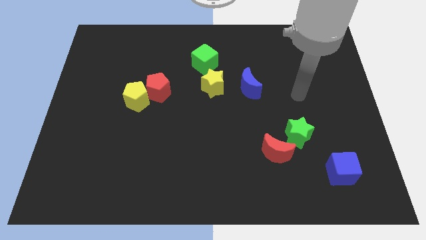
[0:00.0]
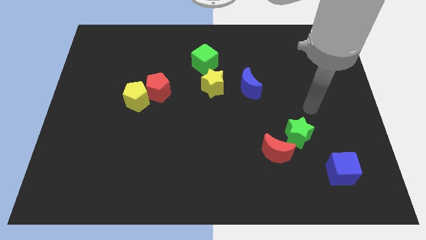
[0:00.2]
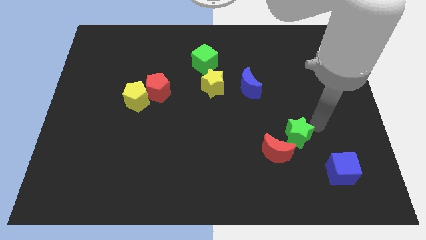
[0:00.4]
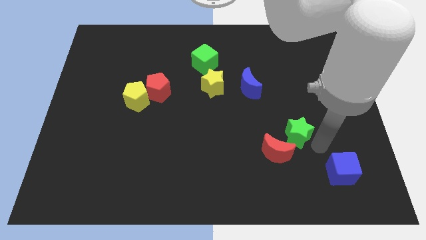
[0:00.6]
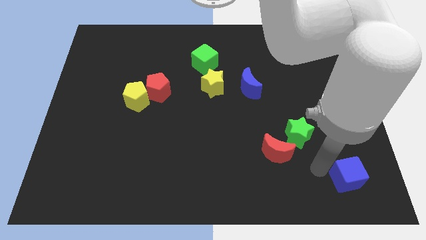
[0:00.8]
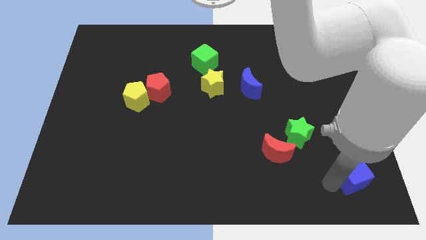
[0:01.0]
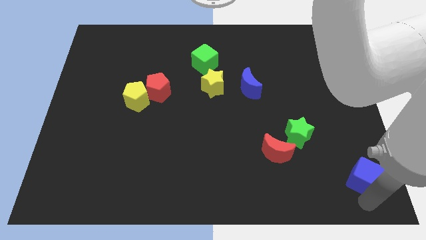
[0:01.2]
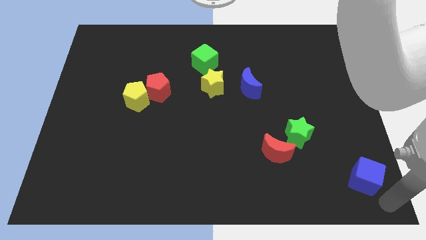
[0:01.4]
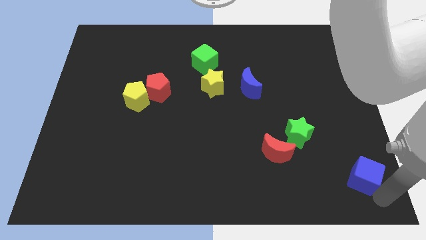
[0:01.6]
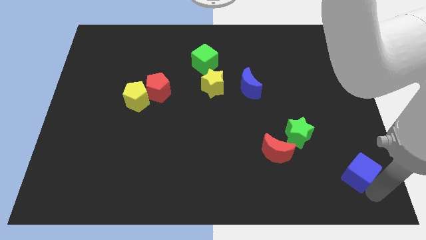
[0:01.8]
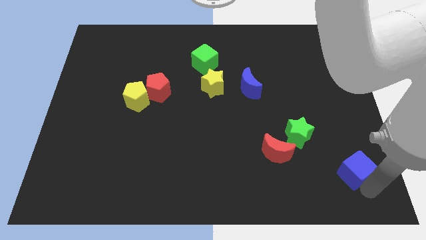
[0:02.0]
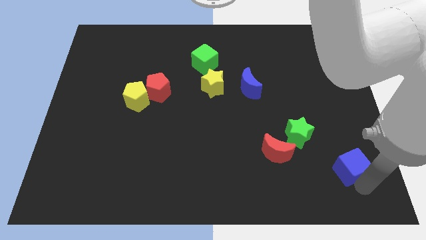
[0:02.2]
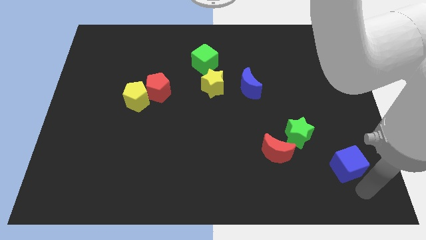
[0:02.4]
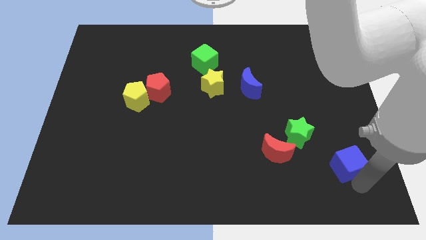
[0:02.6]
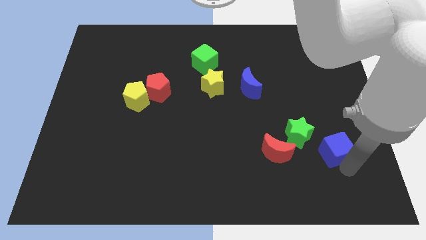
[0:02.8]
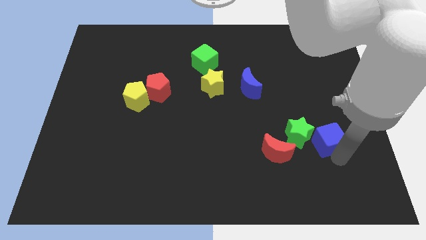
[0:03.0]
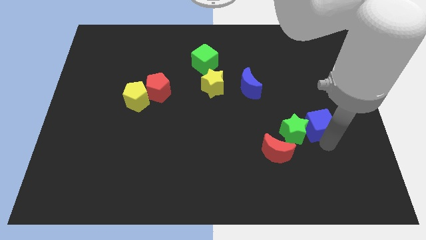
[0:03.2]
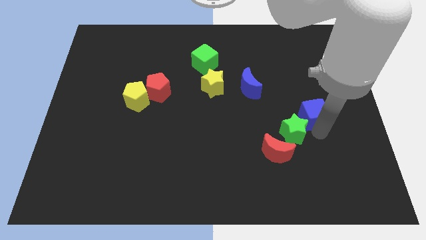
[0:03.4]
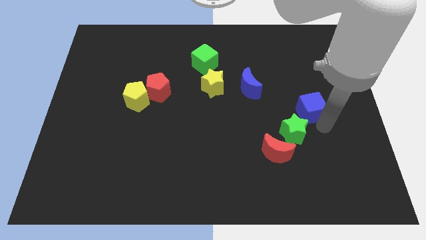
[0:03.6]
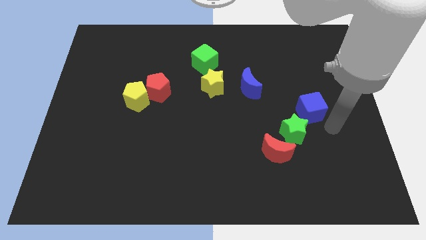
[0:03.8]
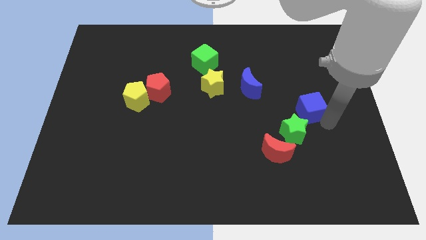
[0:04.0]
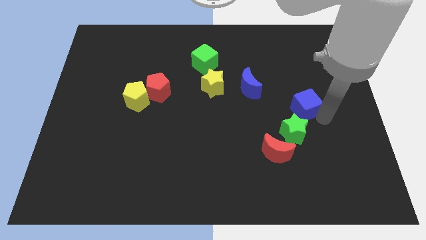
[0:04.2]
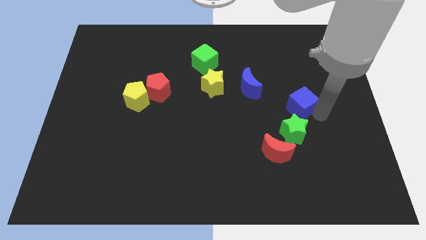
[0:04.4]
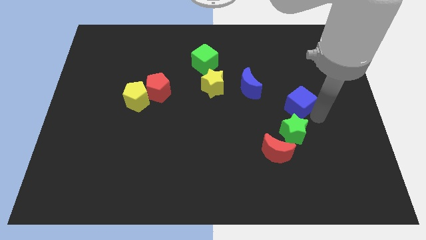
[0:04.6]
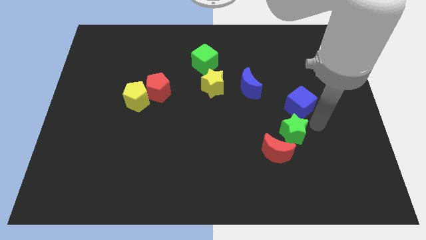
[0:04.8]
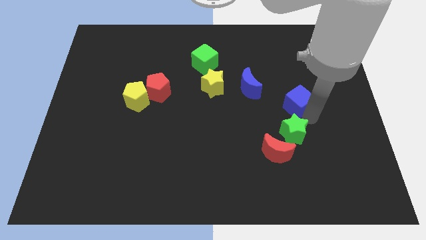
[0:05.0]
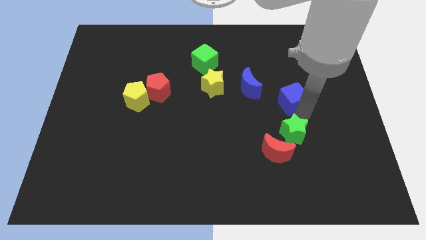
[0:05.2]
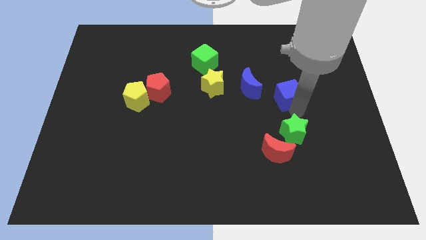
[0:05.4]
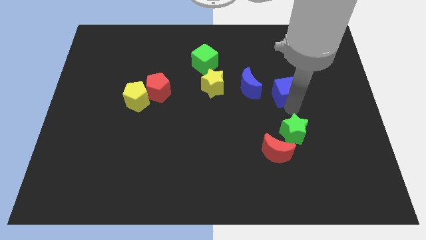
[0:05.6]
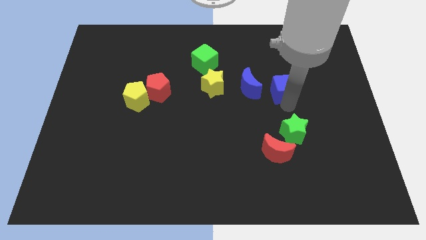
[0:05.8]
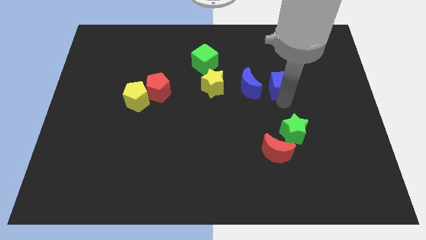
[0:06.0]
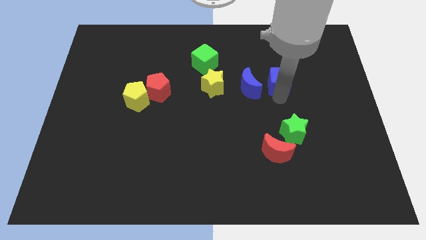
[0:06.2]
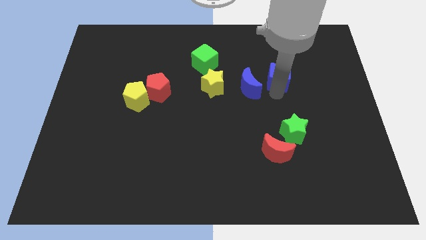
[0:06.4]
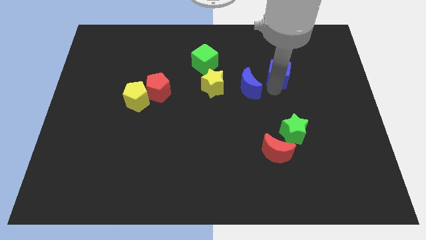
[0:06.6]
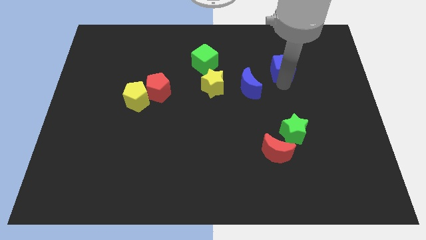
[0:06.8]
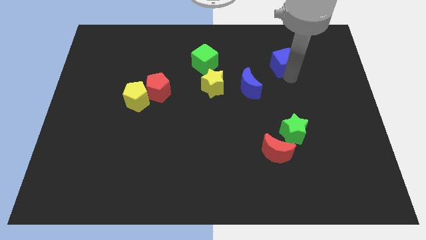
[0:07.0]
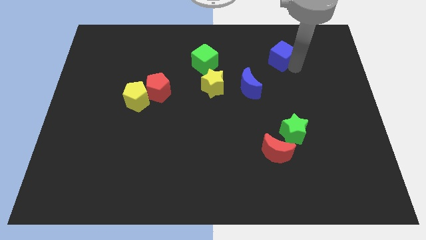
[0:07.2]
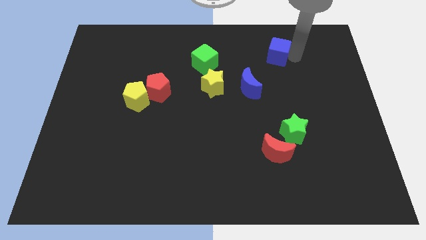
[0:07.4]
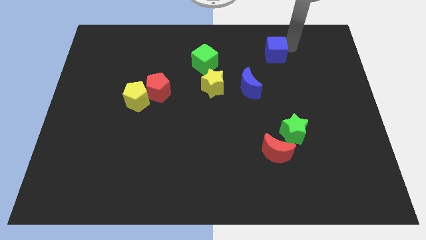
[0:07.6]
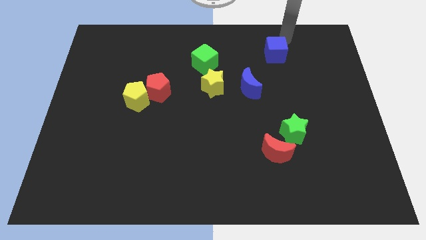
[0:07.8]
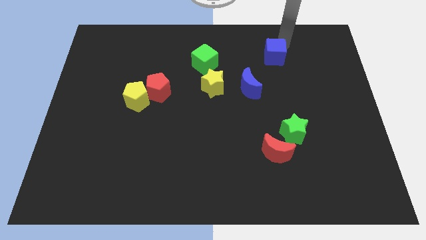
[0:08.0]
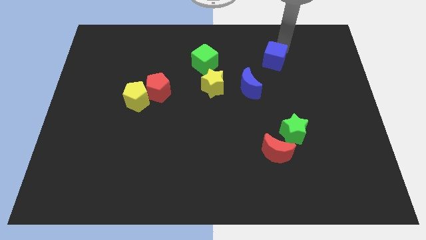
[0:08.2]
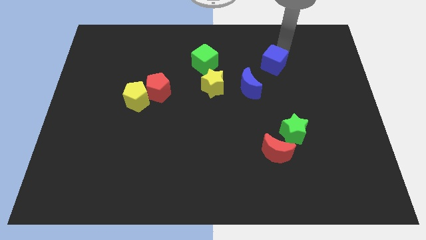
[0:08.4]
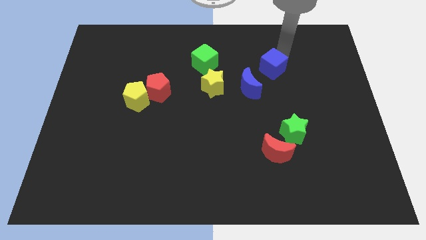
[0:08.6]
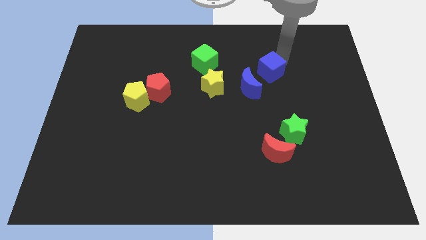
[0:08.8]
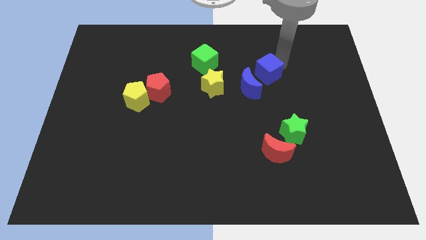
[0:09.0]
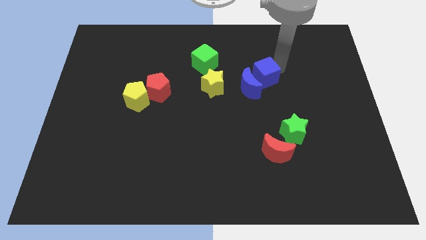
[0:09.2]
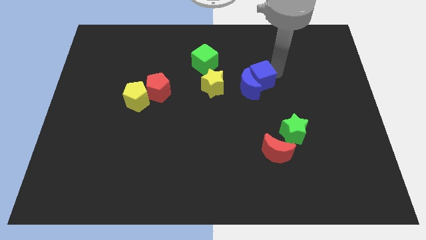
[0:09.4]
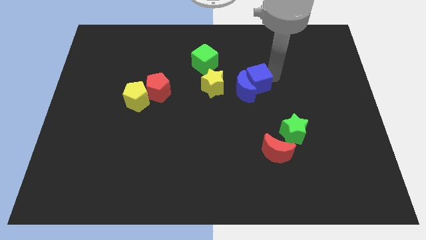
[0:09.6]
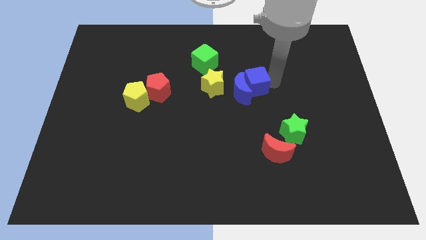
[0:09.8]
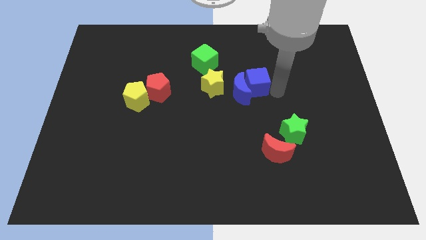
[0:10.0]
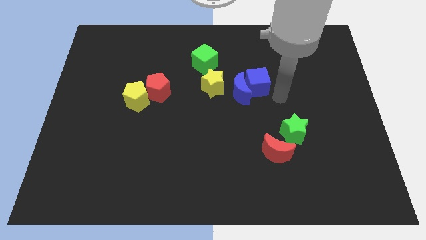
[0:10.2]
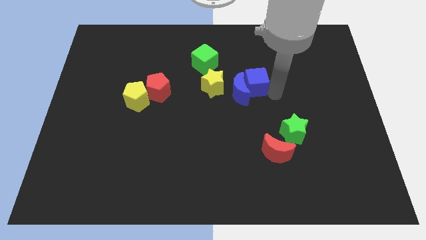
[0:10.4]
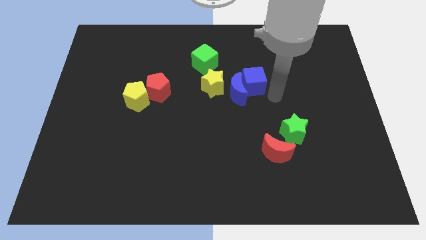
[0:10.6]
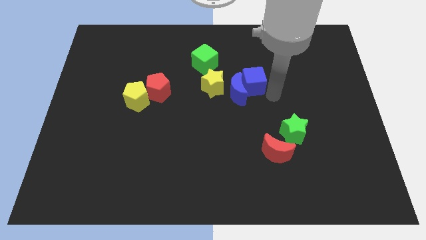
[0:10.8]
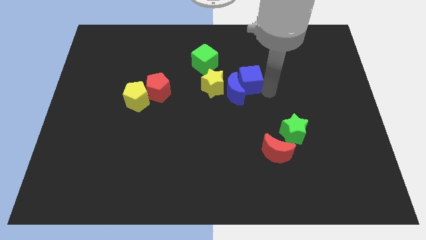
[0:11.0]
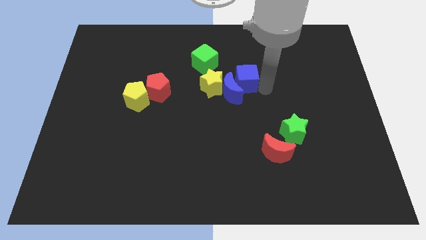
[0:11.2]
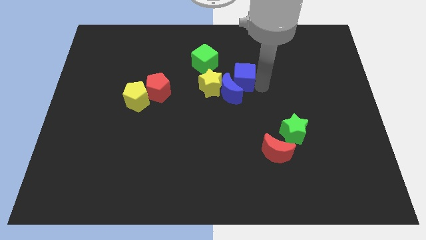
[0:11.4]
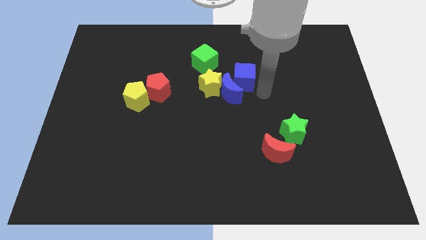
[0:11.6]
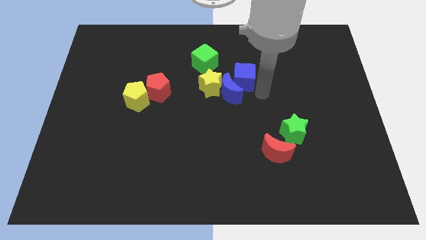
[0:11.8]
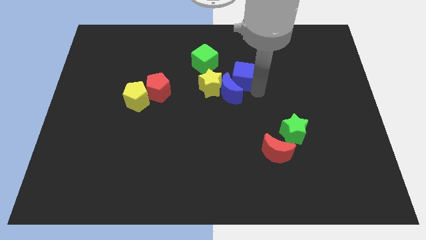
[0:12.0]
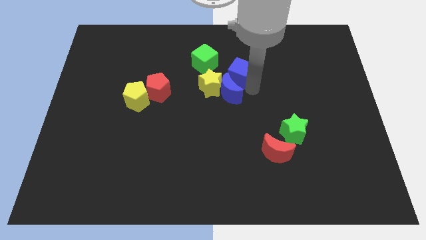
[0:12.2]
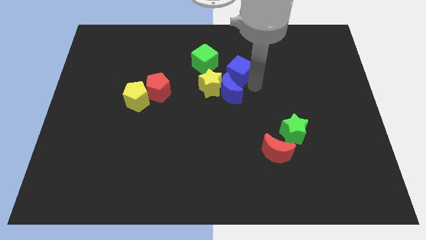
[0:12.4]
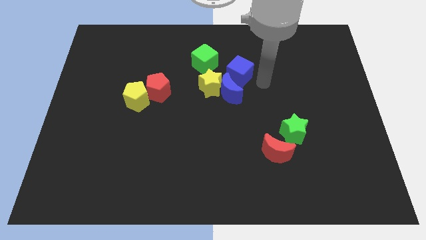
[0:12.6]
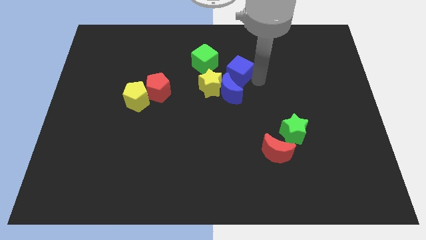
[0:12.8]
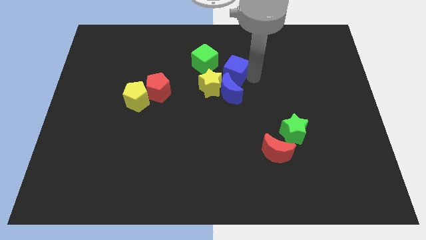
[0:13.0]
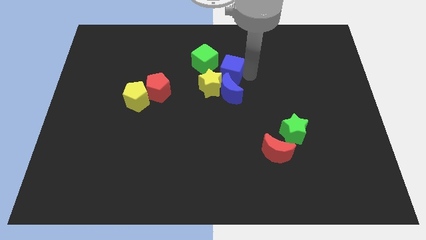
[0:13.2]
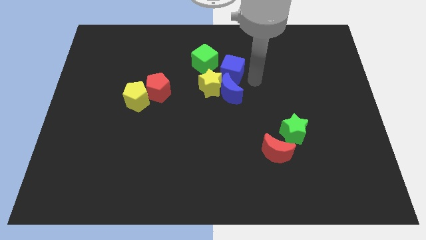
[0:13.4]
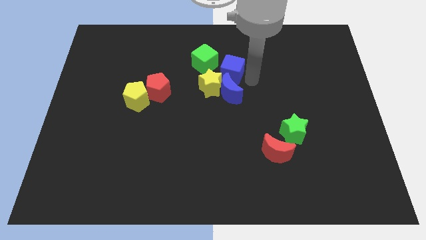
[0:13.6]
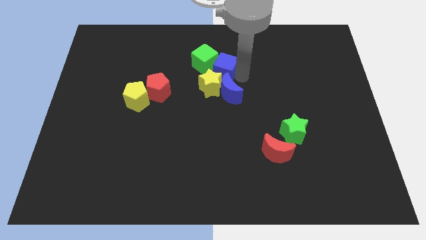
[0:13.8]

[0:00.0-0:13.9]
slide the blue cube close to the green cube

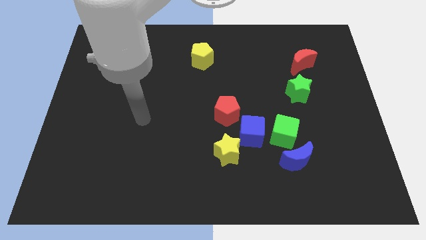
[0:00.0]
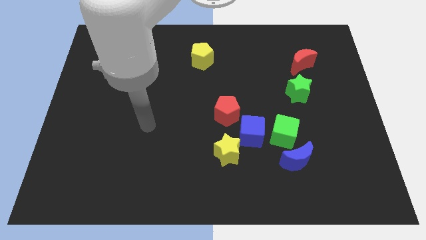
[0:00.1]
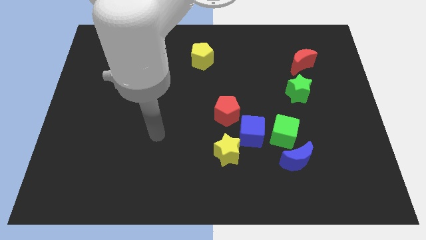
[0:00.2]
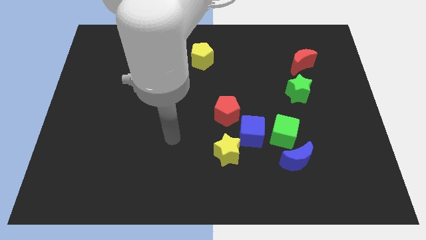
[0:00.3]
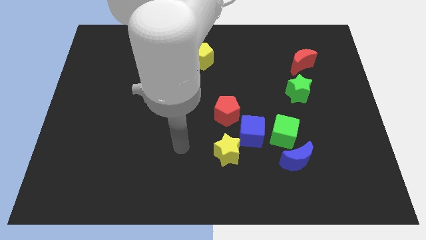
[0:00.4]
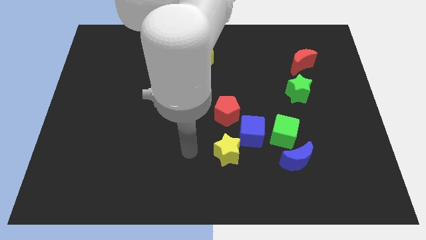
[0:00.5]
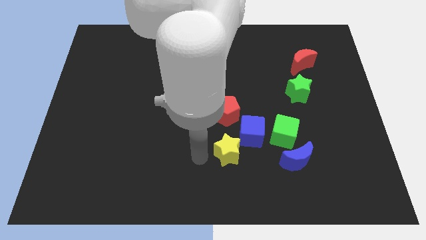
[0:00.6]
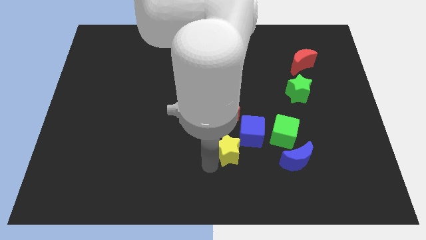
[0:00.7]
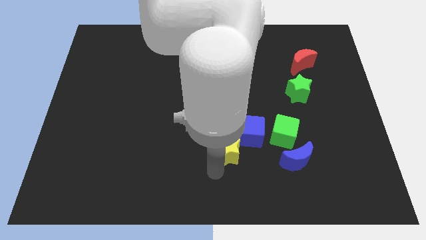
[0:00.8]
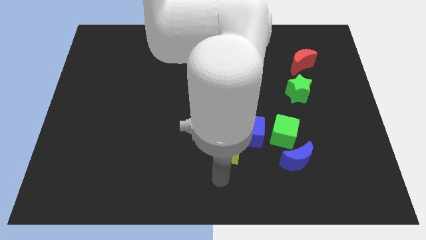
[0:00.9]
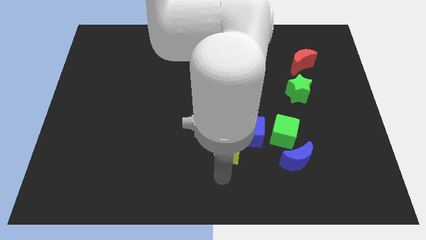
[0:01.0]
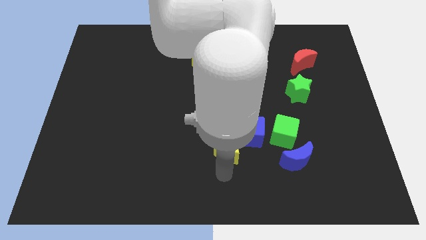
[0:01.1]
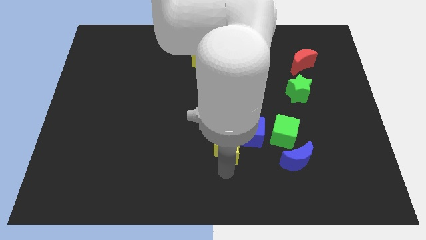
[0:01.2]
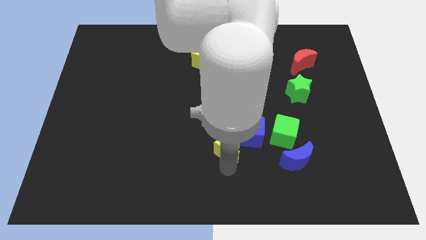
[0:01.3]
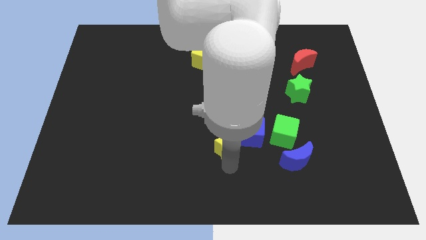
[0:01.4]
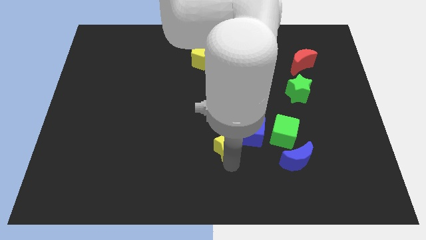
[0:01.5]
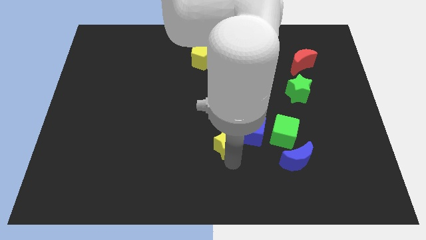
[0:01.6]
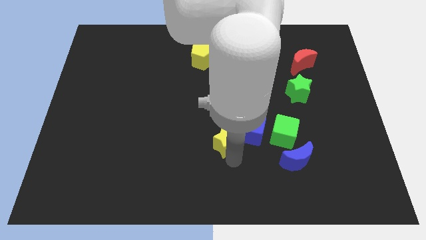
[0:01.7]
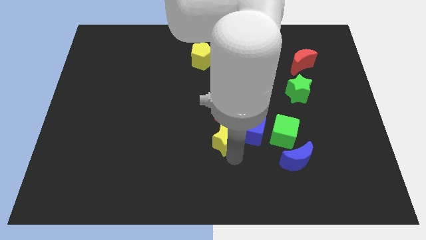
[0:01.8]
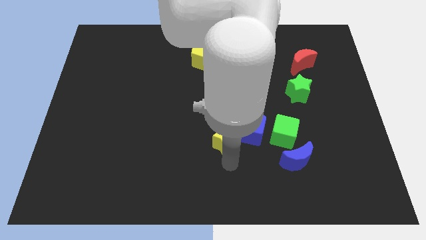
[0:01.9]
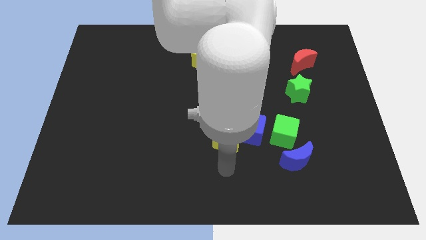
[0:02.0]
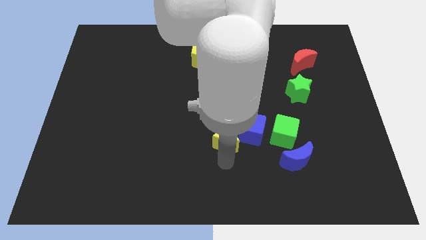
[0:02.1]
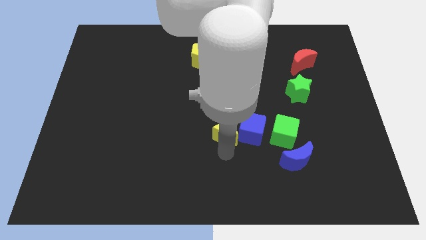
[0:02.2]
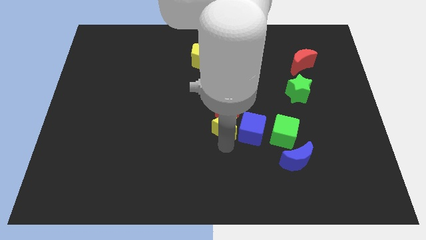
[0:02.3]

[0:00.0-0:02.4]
slide the yellow star towards the red pentagon
